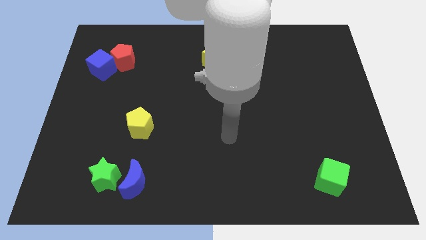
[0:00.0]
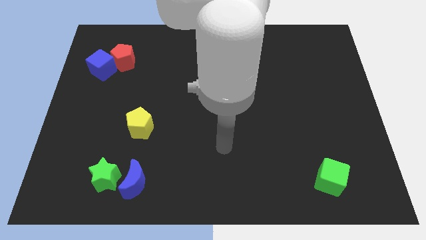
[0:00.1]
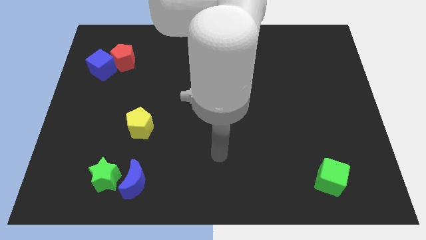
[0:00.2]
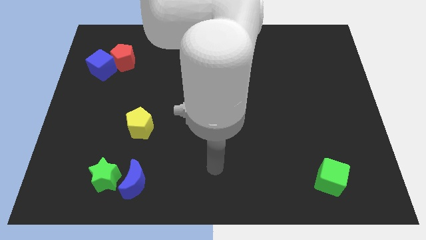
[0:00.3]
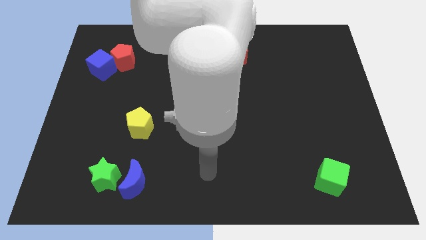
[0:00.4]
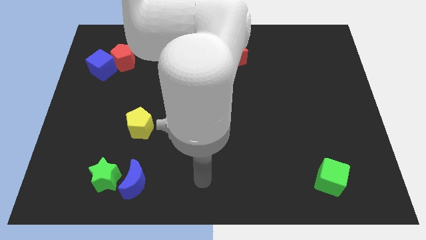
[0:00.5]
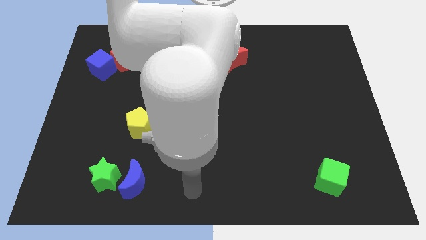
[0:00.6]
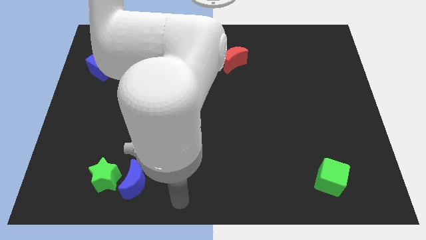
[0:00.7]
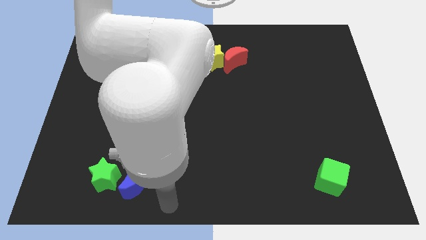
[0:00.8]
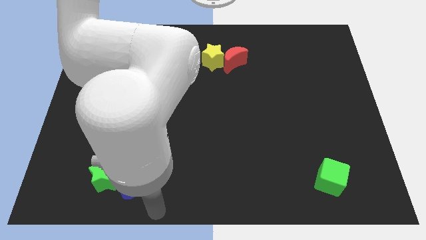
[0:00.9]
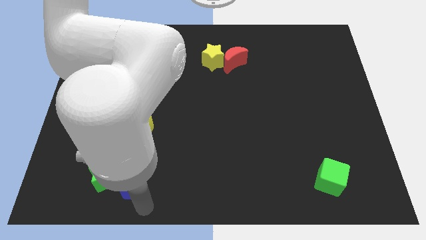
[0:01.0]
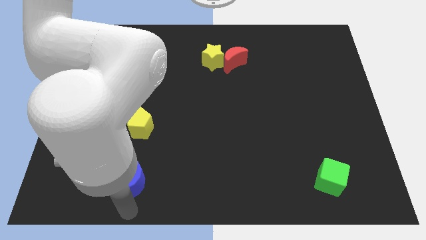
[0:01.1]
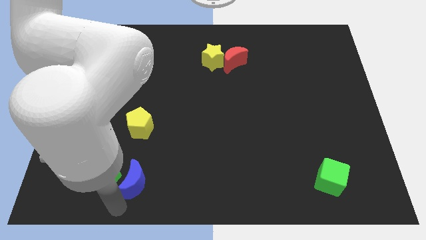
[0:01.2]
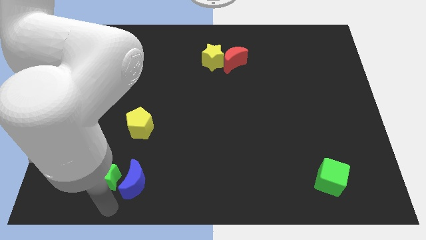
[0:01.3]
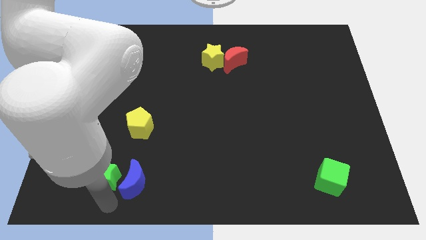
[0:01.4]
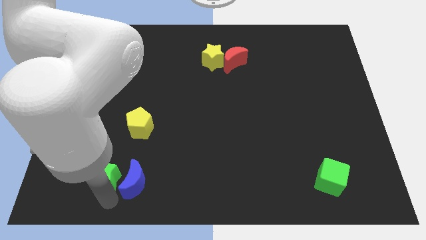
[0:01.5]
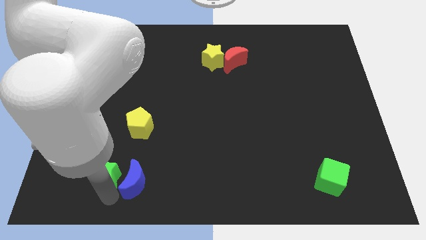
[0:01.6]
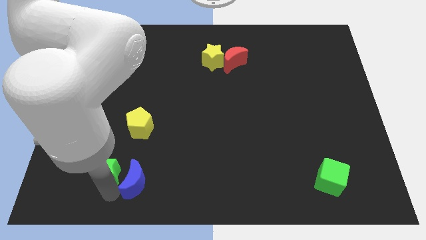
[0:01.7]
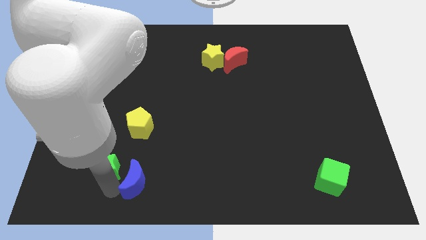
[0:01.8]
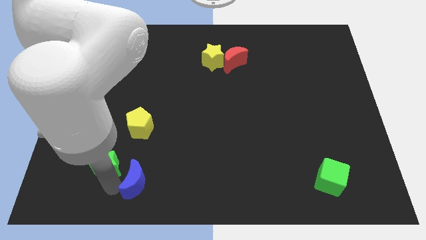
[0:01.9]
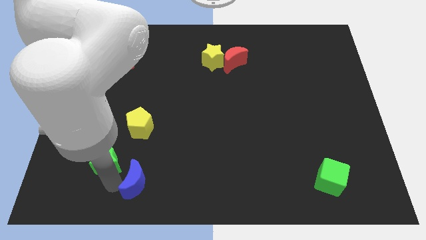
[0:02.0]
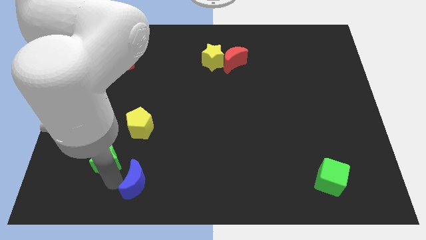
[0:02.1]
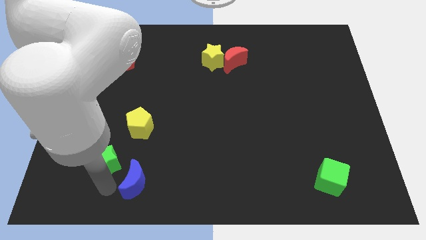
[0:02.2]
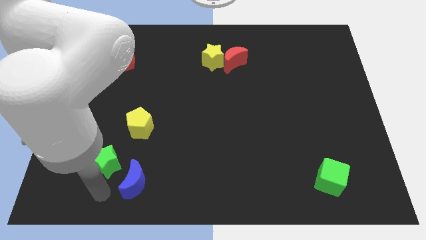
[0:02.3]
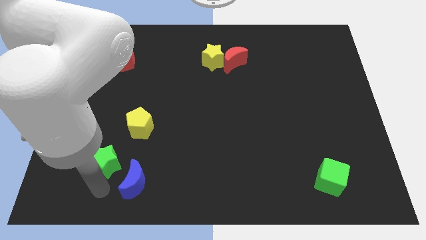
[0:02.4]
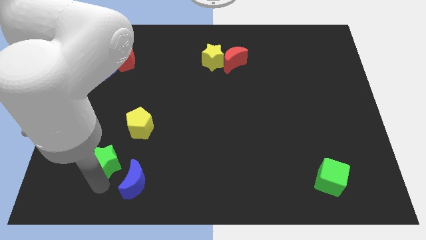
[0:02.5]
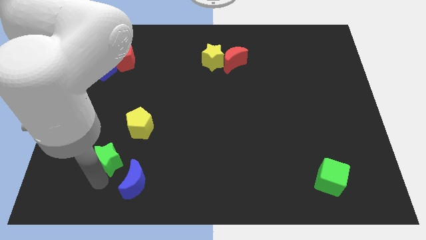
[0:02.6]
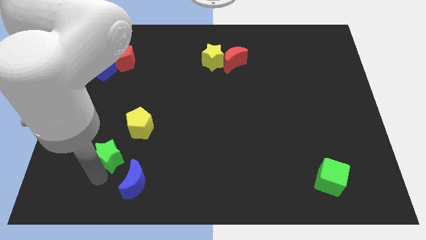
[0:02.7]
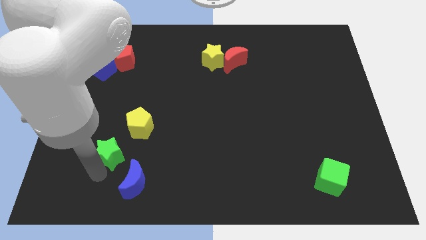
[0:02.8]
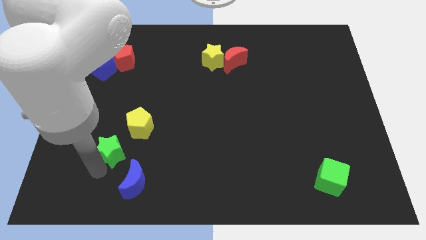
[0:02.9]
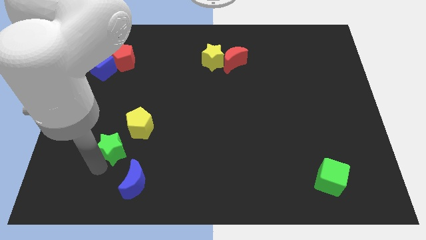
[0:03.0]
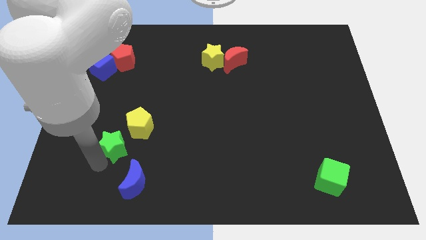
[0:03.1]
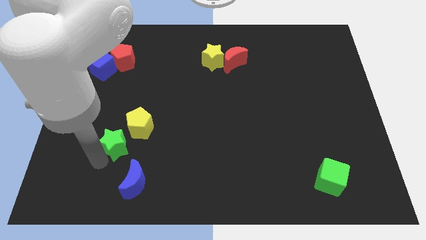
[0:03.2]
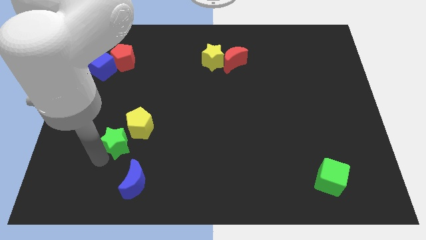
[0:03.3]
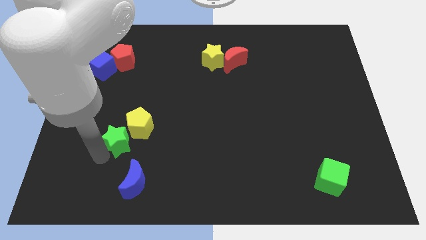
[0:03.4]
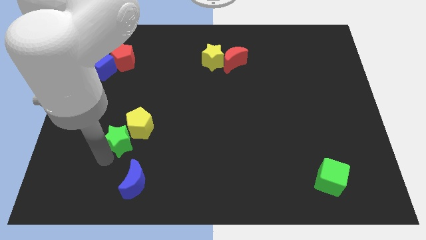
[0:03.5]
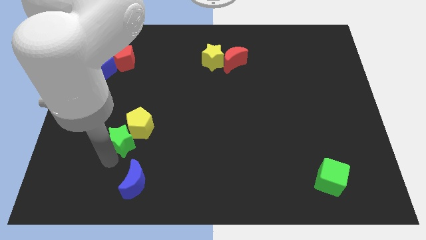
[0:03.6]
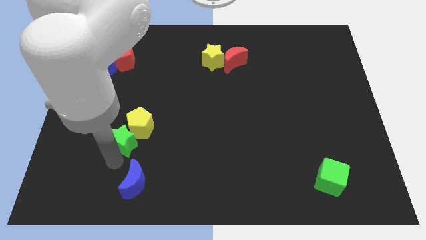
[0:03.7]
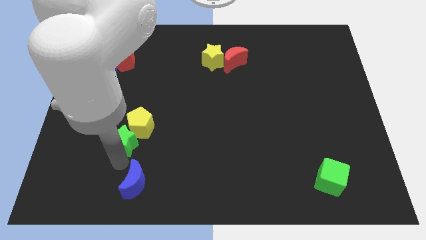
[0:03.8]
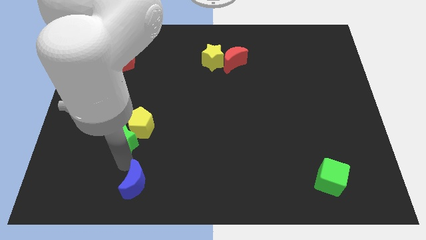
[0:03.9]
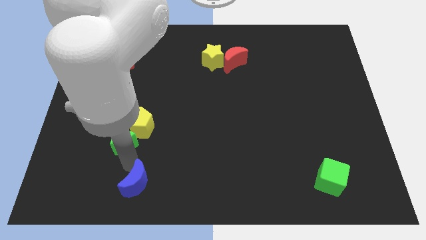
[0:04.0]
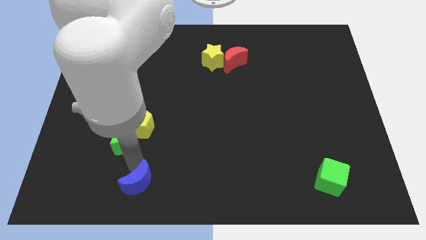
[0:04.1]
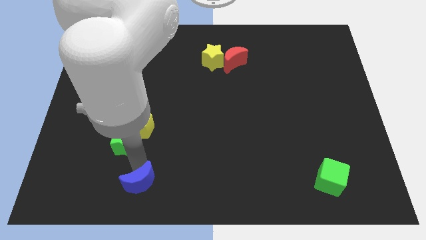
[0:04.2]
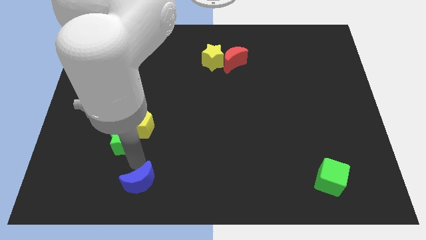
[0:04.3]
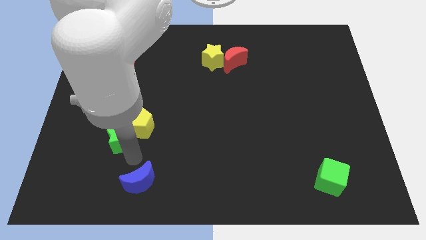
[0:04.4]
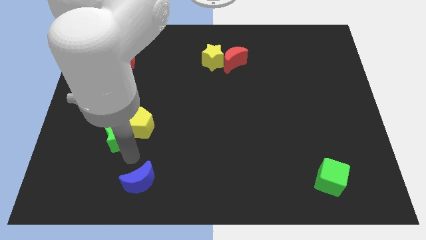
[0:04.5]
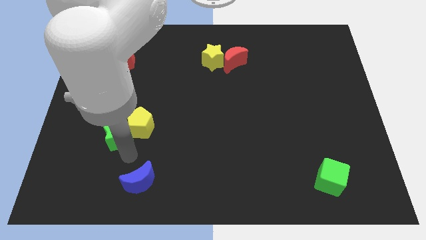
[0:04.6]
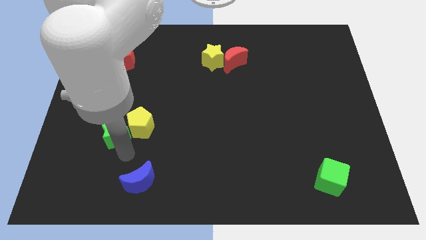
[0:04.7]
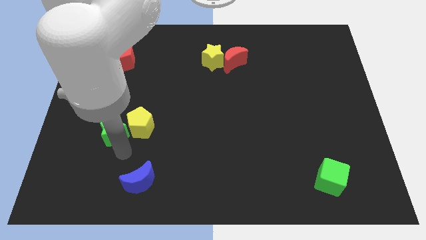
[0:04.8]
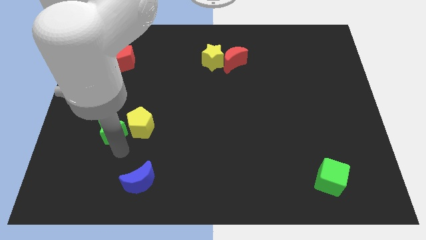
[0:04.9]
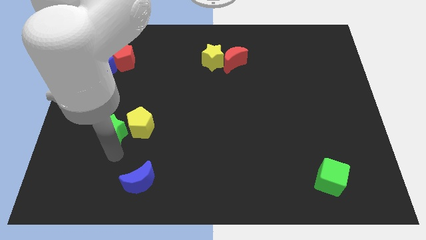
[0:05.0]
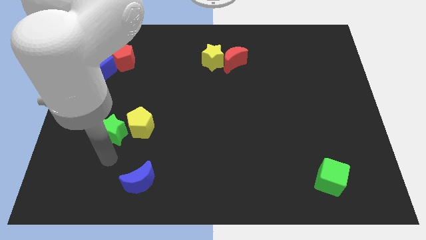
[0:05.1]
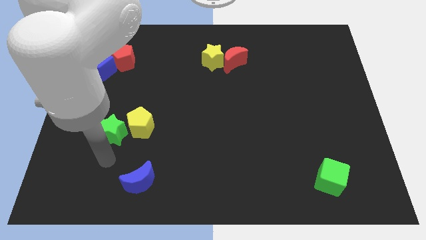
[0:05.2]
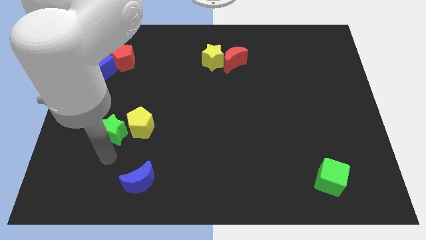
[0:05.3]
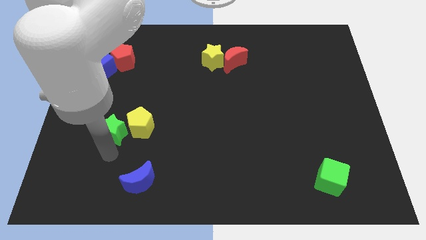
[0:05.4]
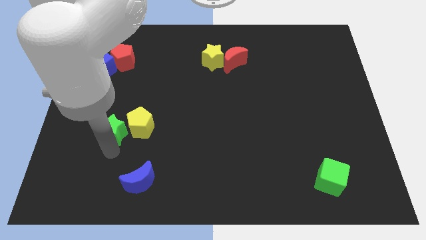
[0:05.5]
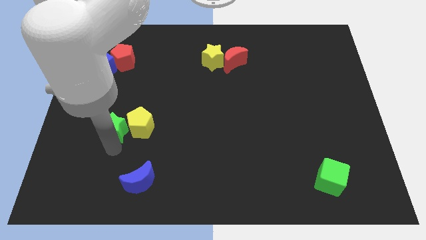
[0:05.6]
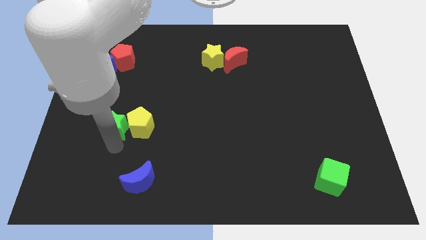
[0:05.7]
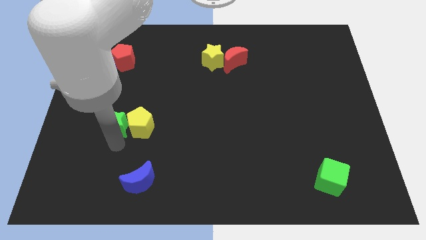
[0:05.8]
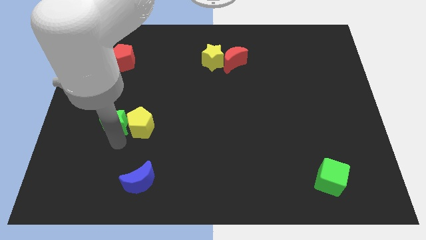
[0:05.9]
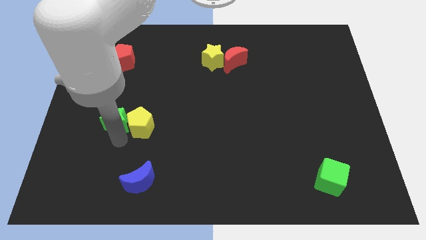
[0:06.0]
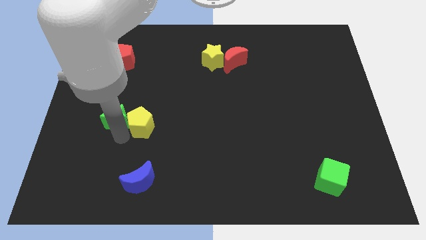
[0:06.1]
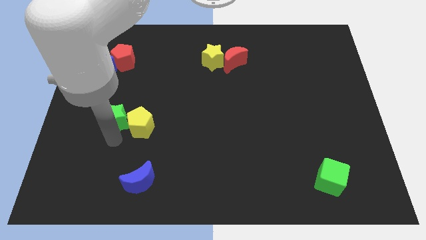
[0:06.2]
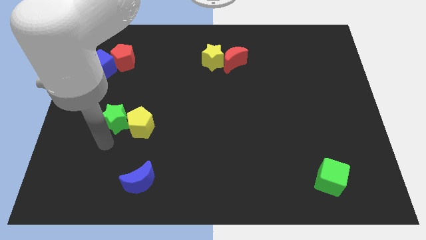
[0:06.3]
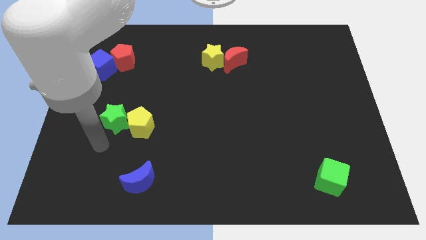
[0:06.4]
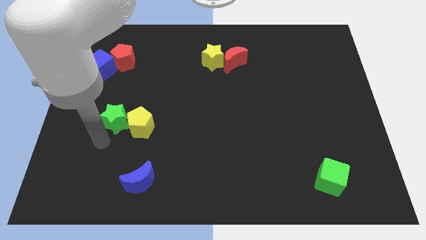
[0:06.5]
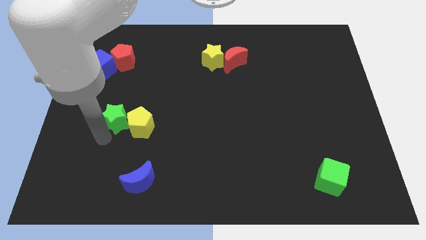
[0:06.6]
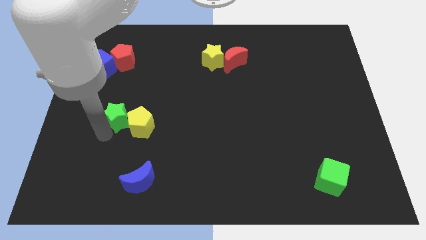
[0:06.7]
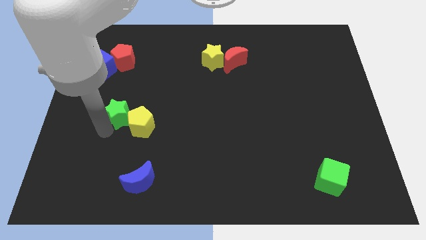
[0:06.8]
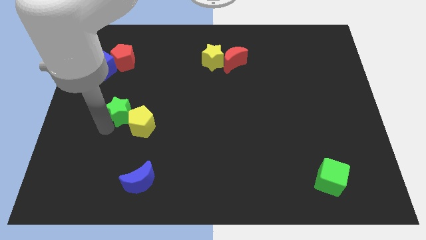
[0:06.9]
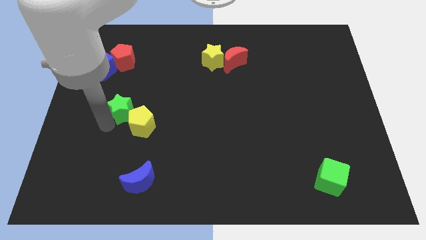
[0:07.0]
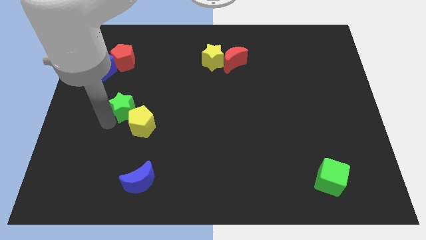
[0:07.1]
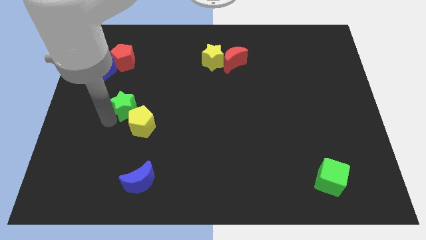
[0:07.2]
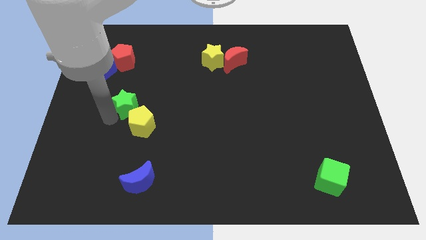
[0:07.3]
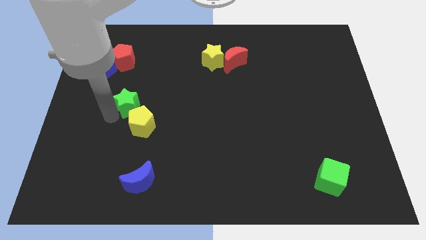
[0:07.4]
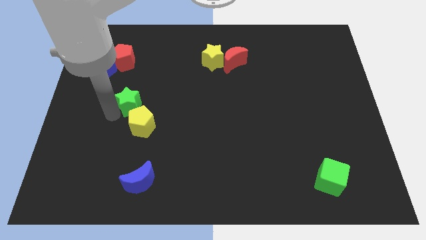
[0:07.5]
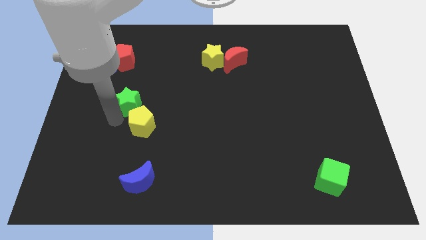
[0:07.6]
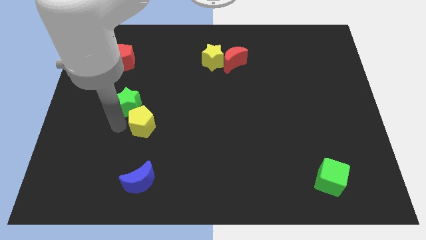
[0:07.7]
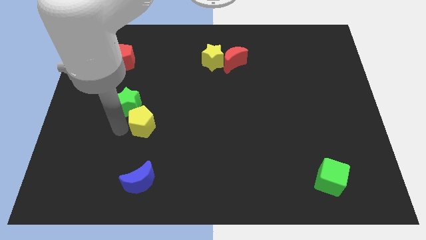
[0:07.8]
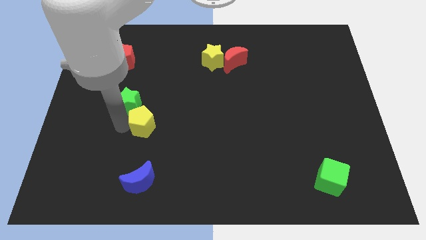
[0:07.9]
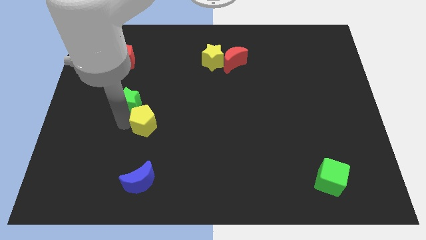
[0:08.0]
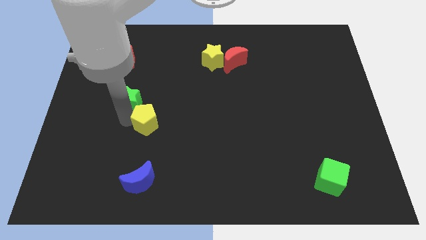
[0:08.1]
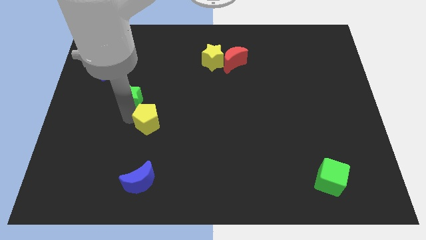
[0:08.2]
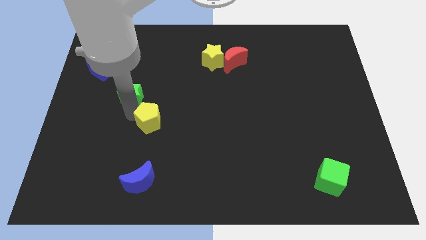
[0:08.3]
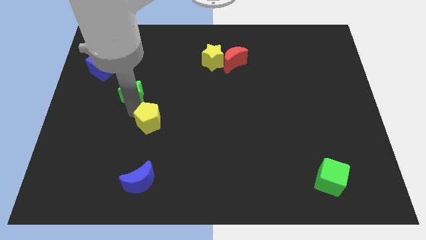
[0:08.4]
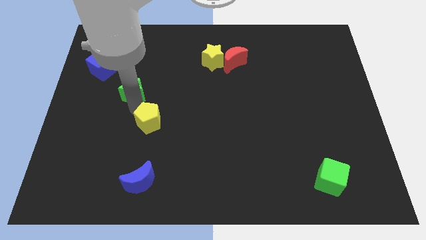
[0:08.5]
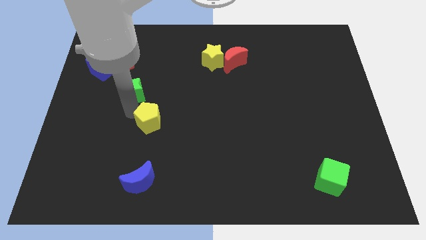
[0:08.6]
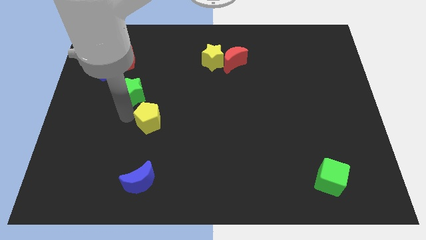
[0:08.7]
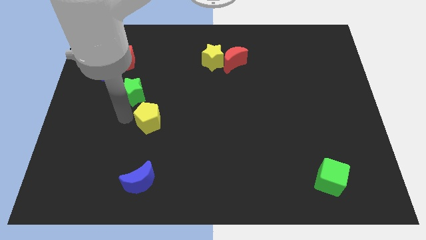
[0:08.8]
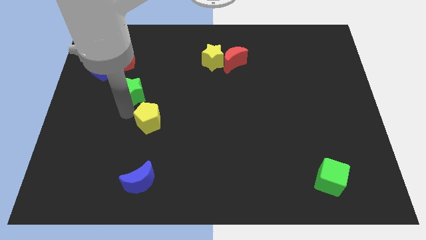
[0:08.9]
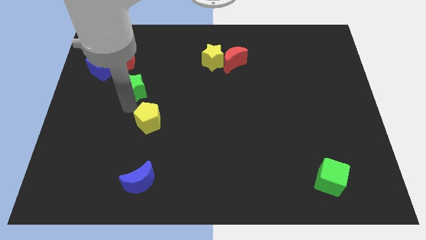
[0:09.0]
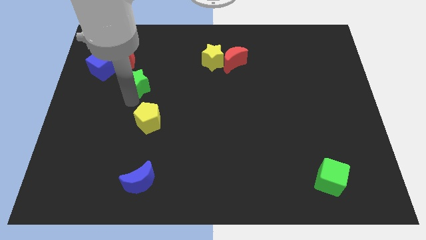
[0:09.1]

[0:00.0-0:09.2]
put the green star to the bottom right of the red pentagon
